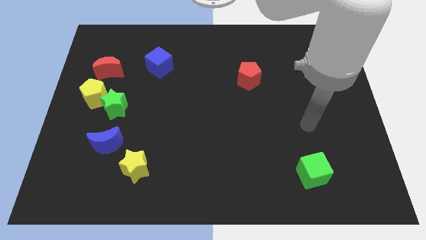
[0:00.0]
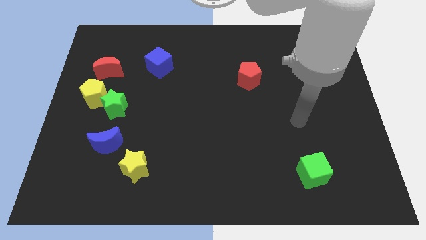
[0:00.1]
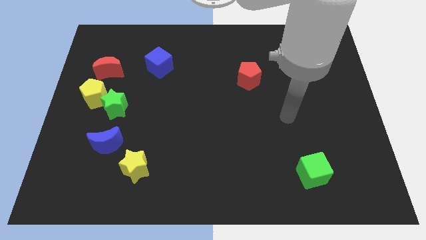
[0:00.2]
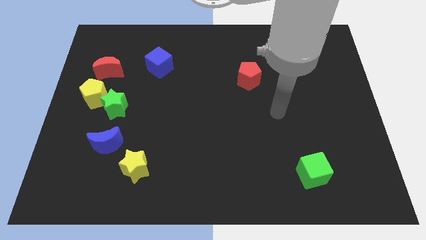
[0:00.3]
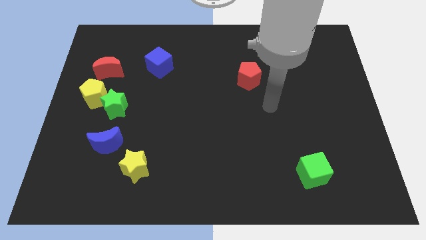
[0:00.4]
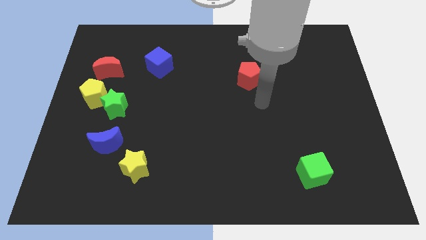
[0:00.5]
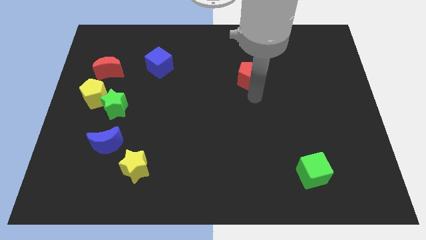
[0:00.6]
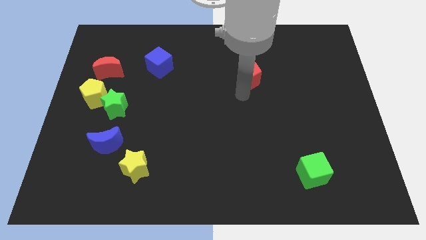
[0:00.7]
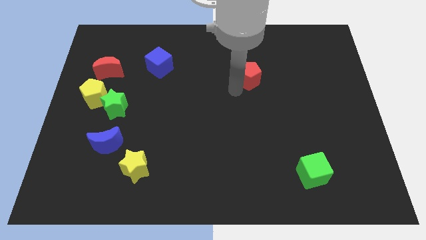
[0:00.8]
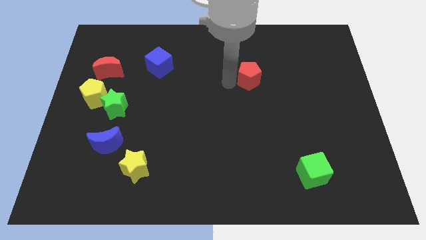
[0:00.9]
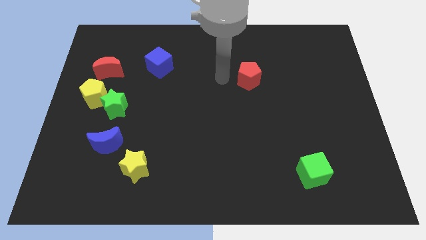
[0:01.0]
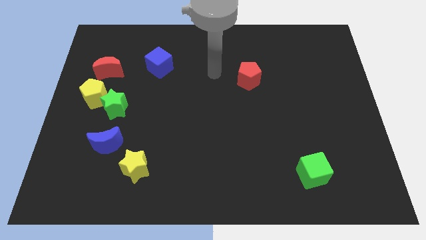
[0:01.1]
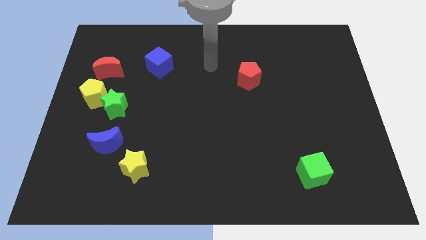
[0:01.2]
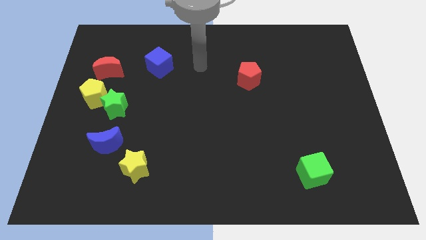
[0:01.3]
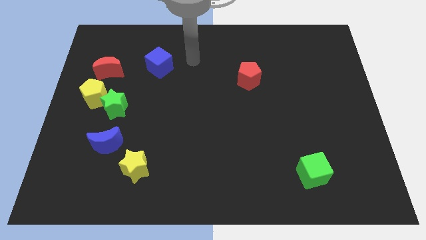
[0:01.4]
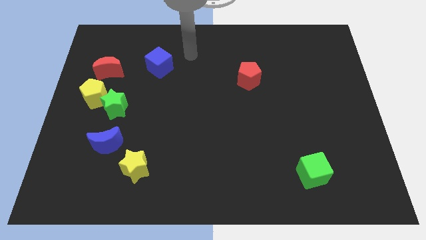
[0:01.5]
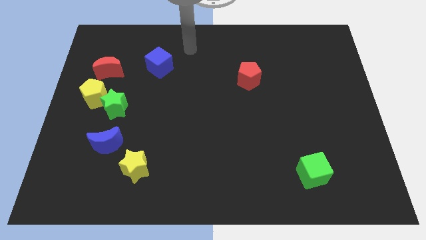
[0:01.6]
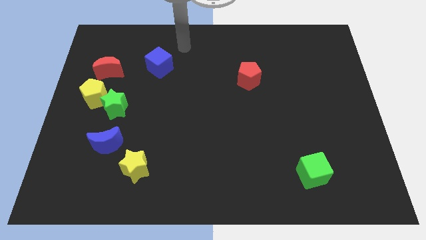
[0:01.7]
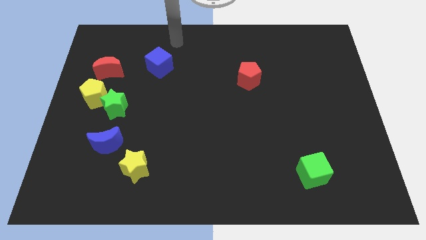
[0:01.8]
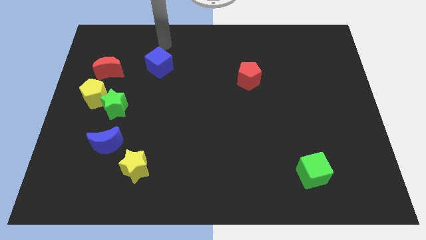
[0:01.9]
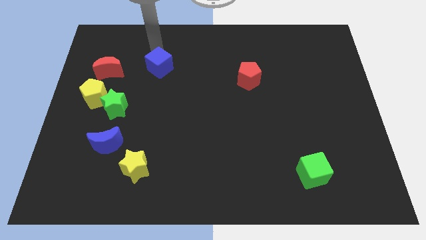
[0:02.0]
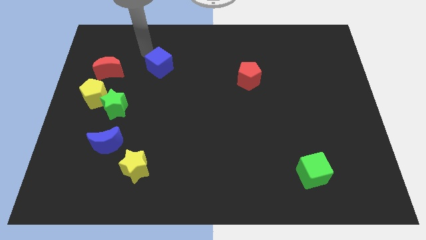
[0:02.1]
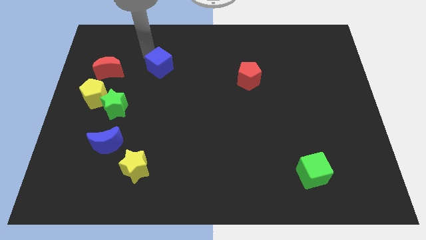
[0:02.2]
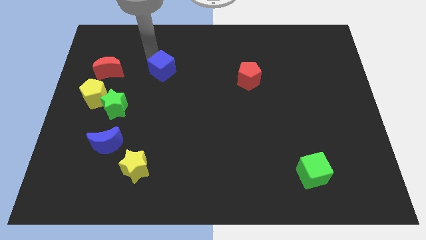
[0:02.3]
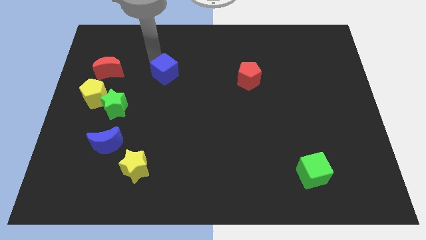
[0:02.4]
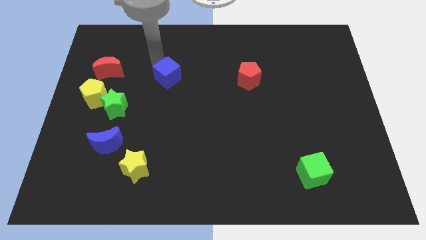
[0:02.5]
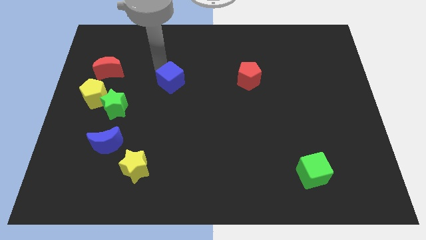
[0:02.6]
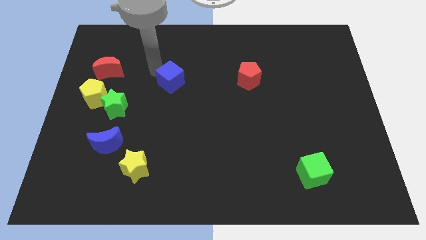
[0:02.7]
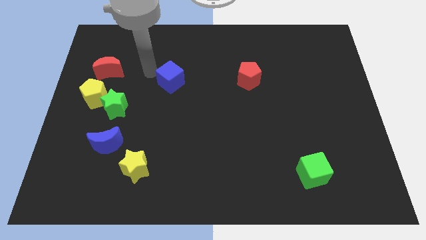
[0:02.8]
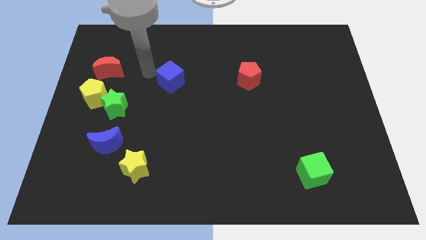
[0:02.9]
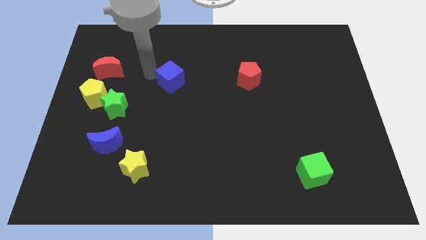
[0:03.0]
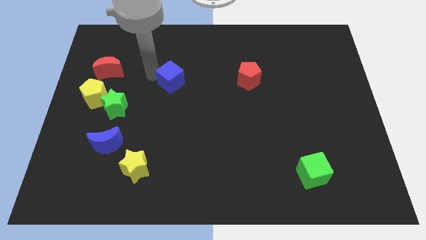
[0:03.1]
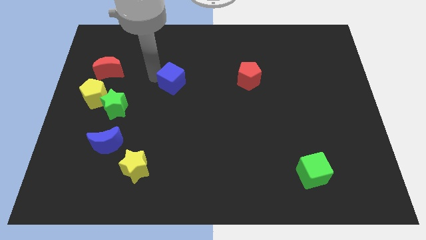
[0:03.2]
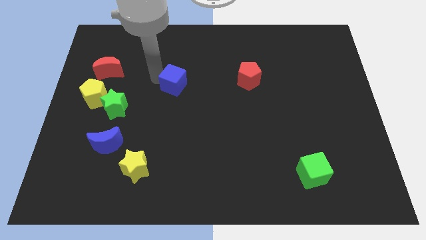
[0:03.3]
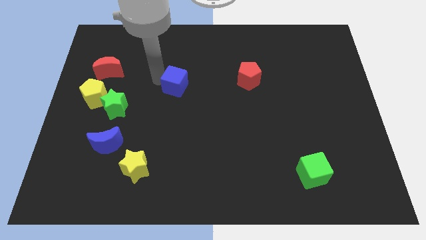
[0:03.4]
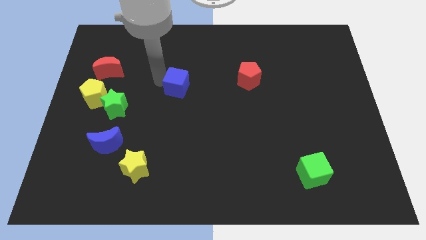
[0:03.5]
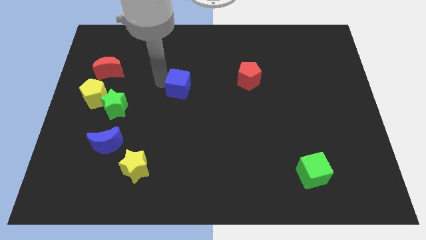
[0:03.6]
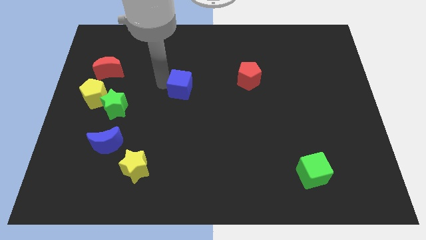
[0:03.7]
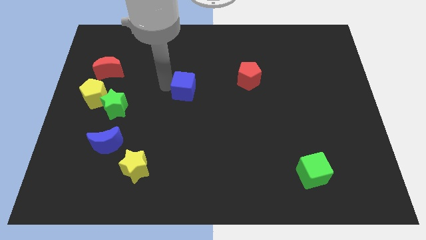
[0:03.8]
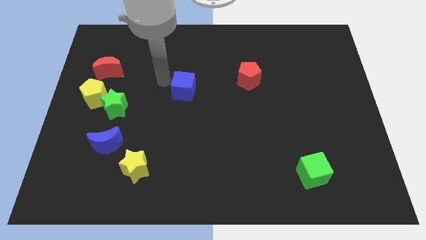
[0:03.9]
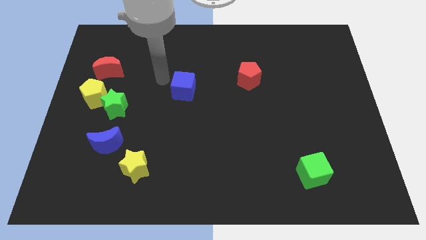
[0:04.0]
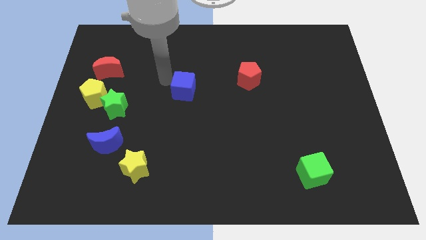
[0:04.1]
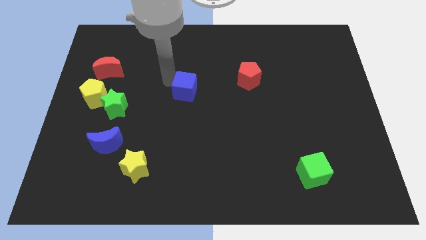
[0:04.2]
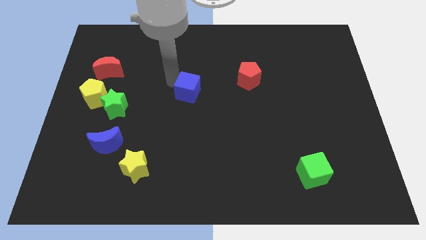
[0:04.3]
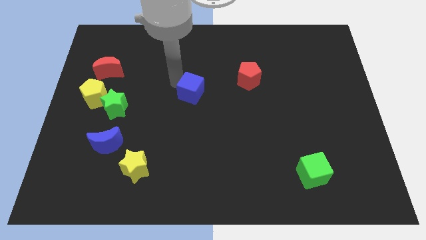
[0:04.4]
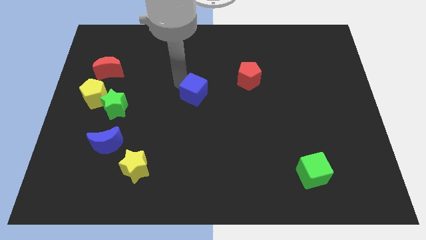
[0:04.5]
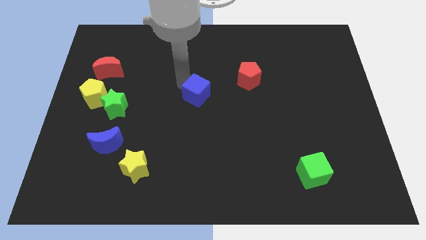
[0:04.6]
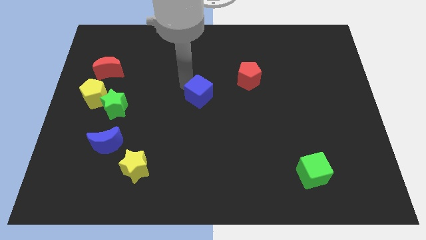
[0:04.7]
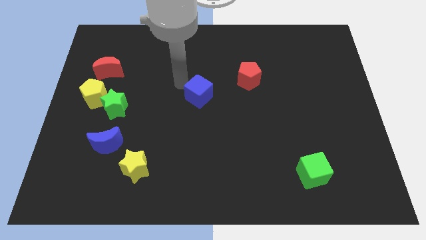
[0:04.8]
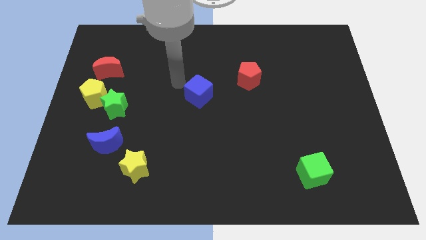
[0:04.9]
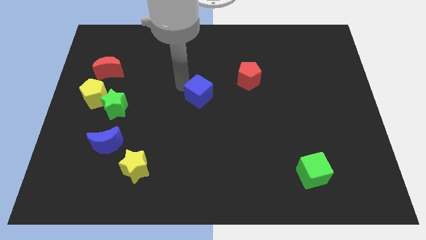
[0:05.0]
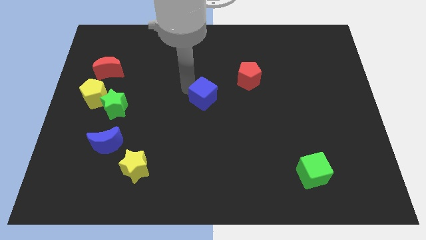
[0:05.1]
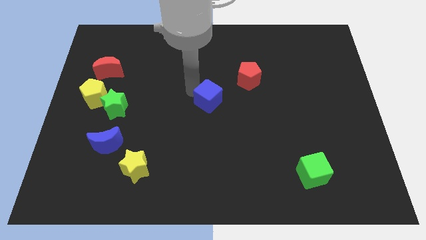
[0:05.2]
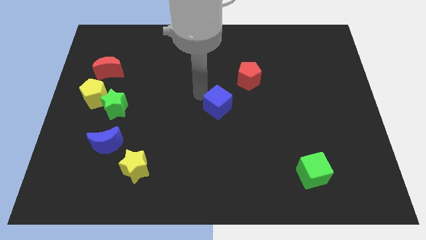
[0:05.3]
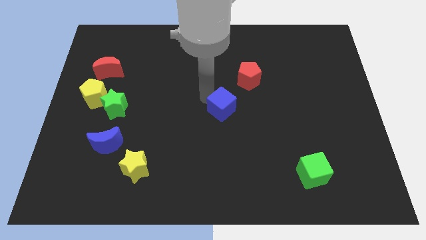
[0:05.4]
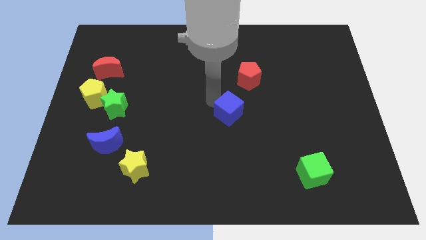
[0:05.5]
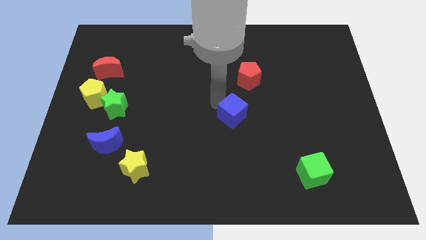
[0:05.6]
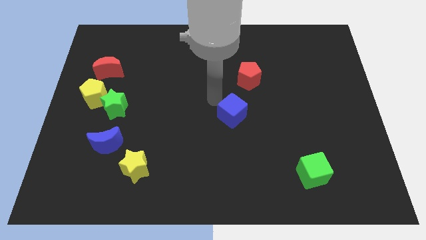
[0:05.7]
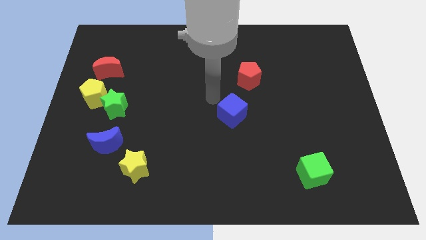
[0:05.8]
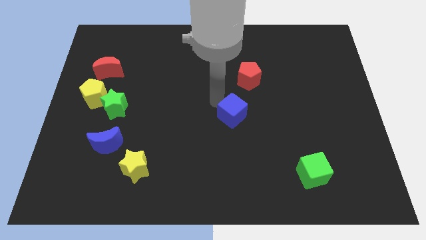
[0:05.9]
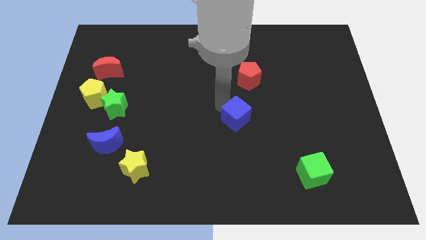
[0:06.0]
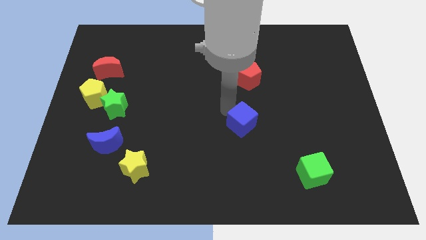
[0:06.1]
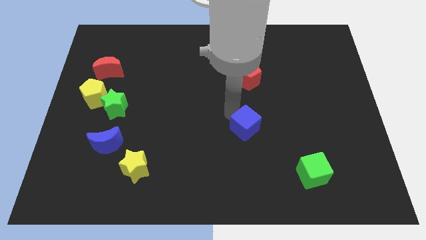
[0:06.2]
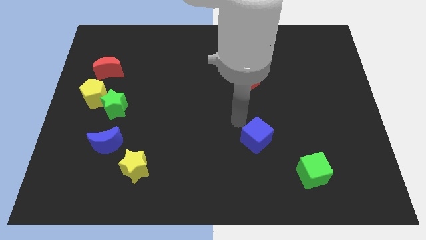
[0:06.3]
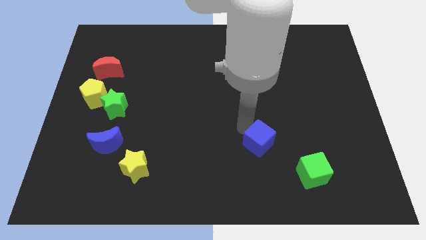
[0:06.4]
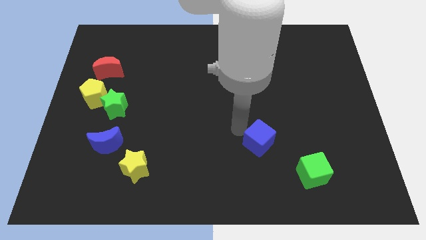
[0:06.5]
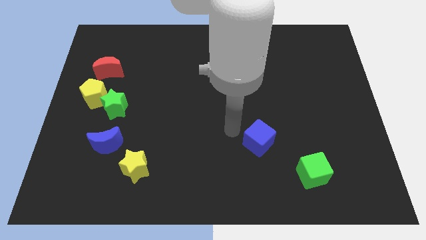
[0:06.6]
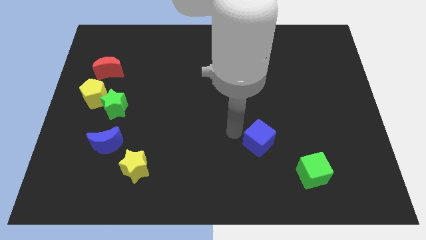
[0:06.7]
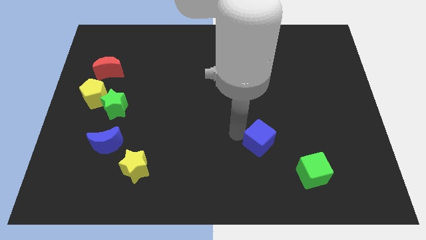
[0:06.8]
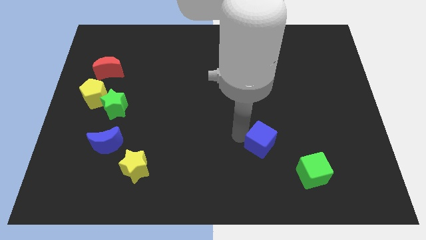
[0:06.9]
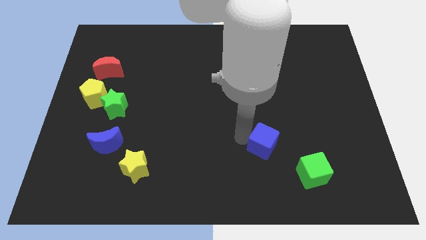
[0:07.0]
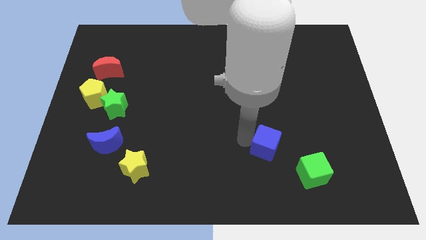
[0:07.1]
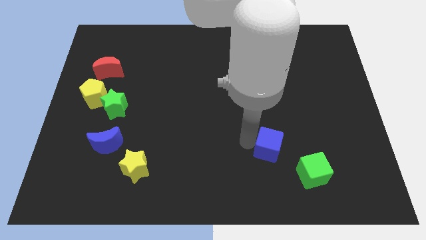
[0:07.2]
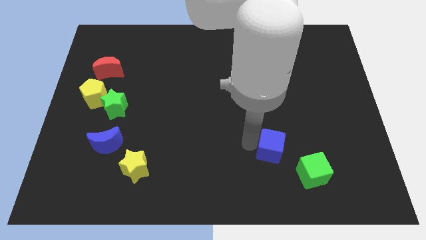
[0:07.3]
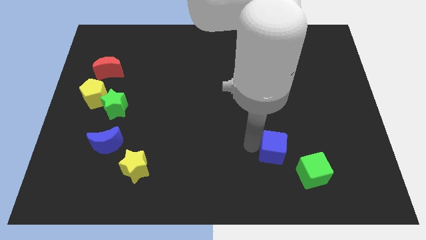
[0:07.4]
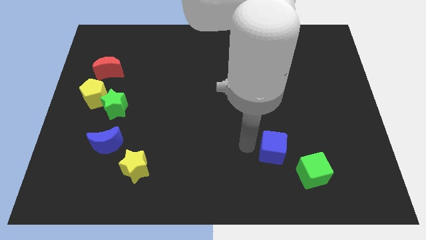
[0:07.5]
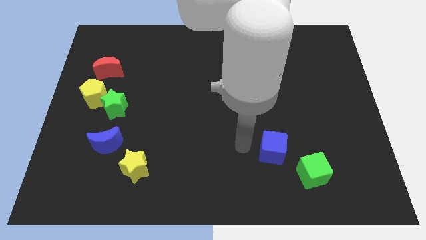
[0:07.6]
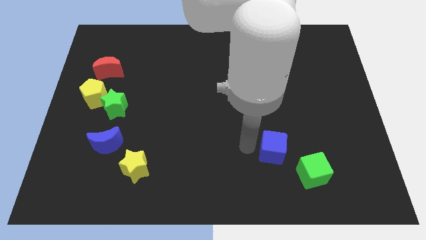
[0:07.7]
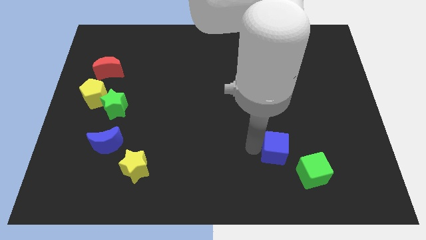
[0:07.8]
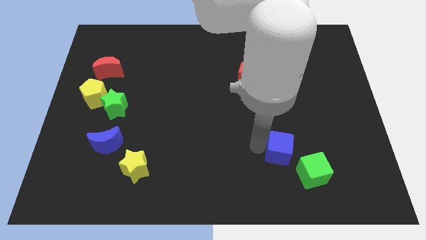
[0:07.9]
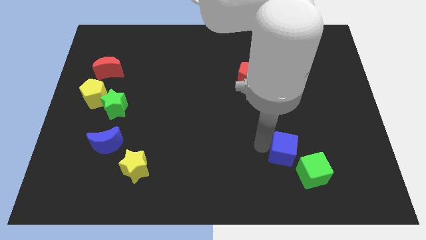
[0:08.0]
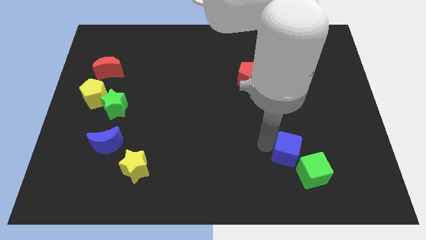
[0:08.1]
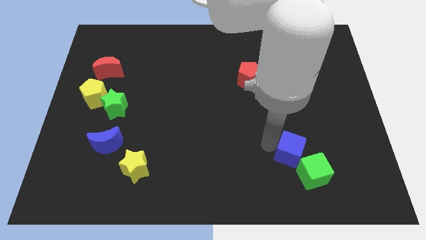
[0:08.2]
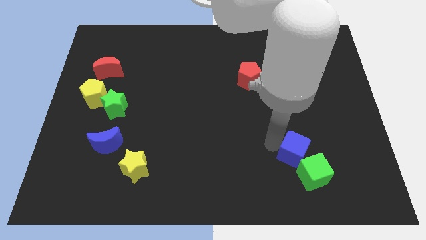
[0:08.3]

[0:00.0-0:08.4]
put the blue cube towards the green cube

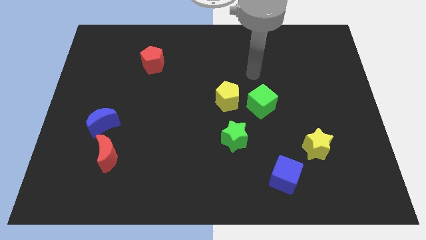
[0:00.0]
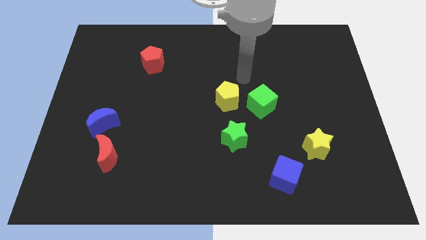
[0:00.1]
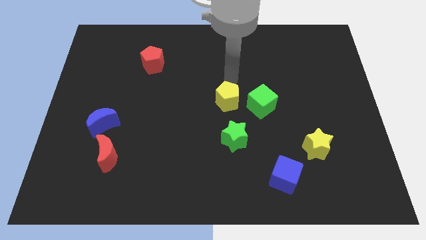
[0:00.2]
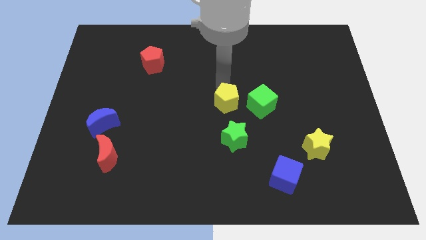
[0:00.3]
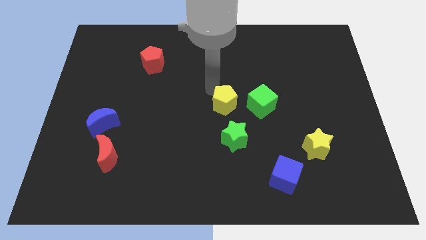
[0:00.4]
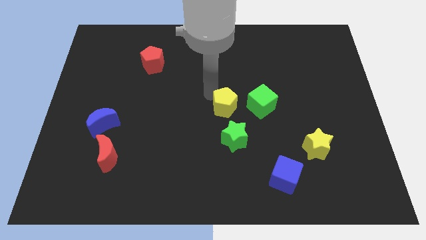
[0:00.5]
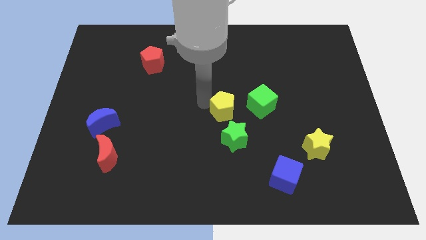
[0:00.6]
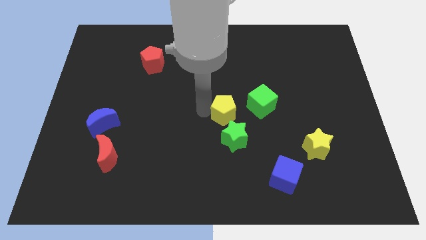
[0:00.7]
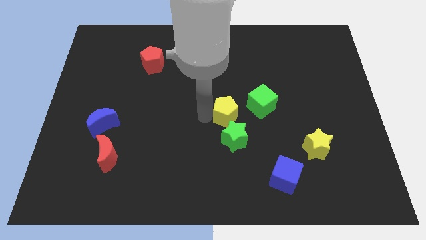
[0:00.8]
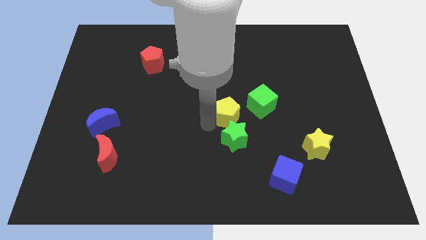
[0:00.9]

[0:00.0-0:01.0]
put the green star to the yellow pentagon
